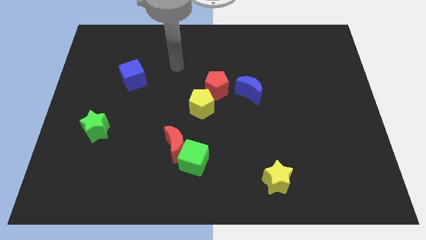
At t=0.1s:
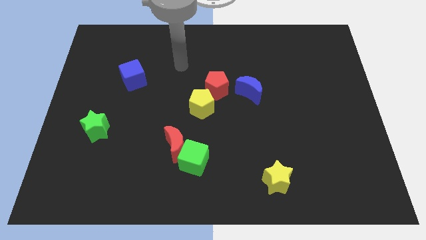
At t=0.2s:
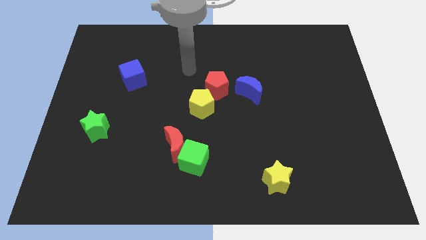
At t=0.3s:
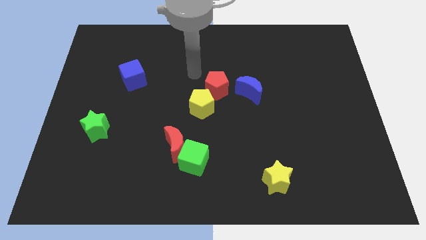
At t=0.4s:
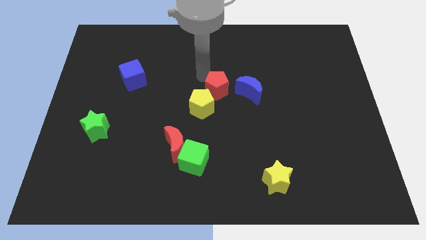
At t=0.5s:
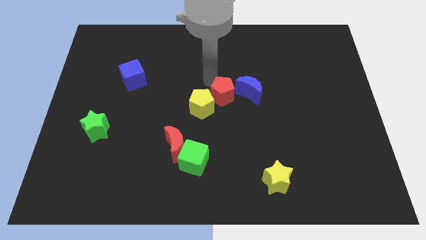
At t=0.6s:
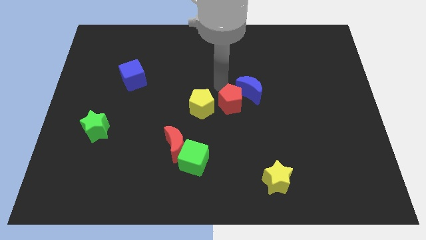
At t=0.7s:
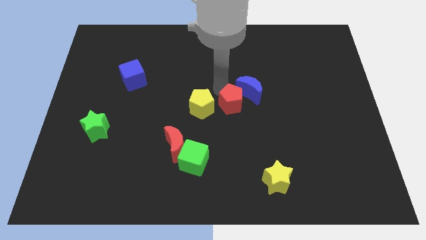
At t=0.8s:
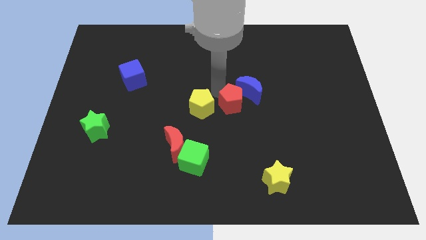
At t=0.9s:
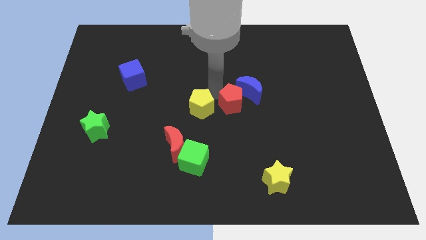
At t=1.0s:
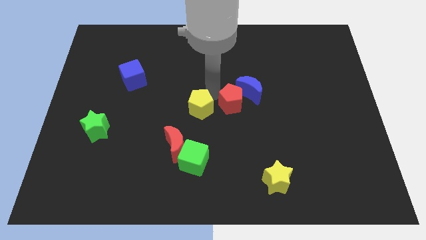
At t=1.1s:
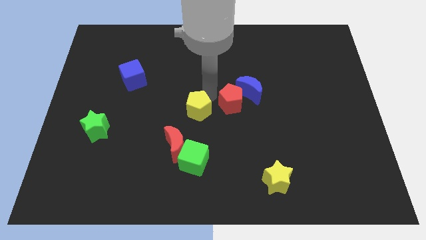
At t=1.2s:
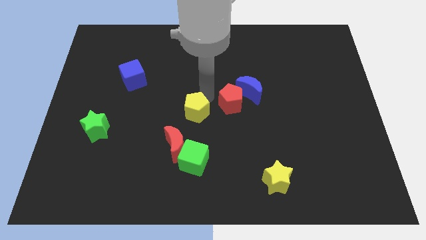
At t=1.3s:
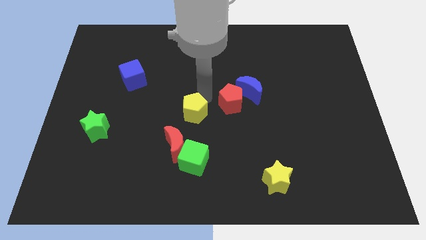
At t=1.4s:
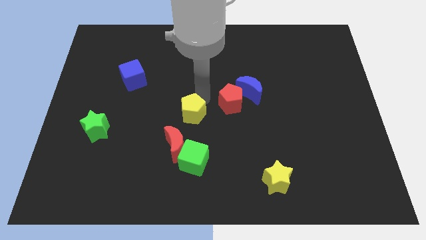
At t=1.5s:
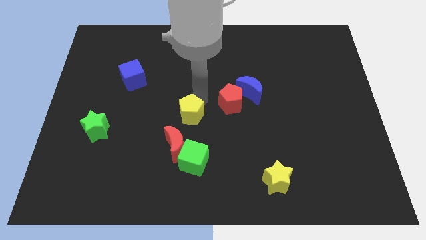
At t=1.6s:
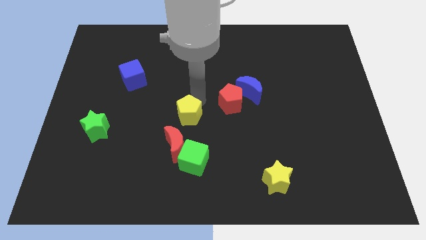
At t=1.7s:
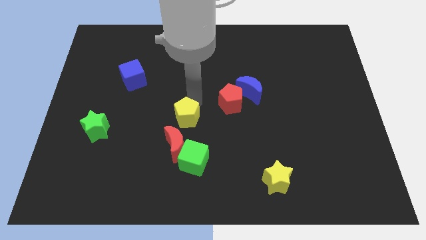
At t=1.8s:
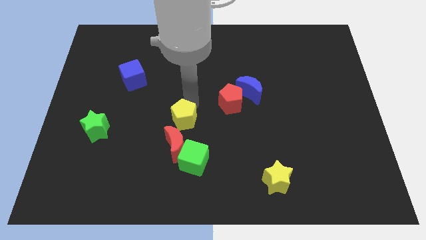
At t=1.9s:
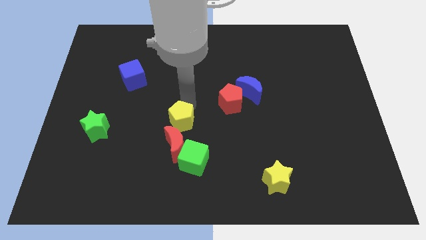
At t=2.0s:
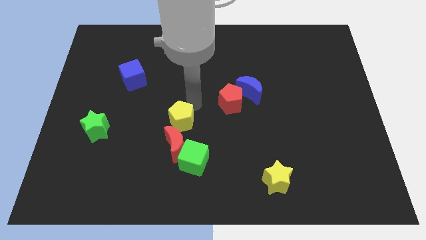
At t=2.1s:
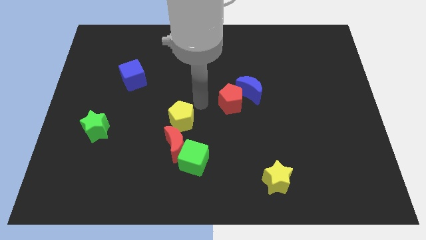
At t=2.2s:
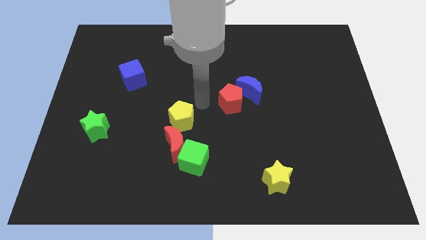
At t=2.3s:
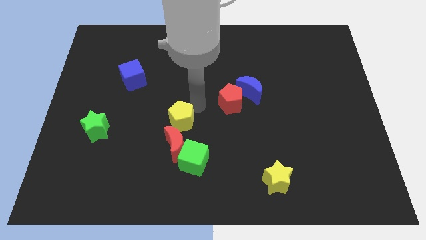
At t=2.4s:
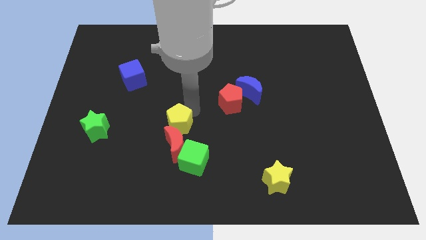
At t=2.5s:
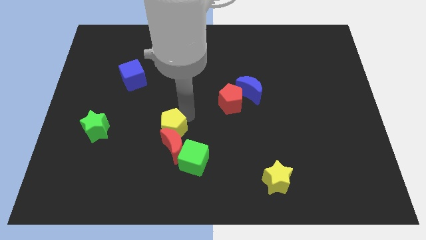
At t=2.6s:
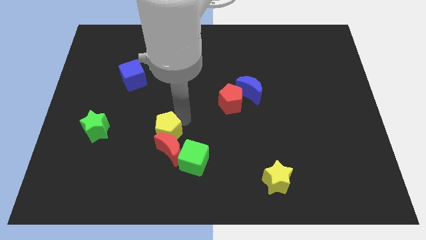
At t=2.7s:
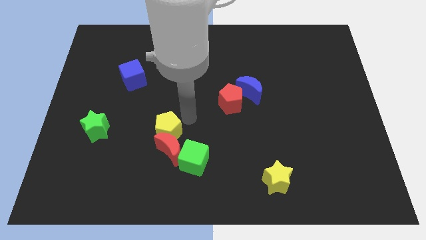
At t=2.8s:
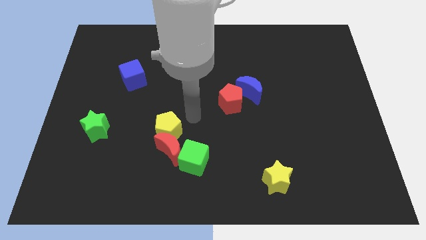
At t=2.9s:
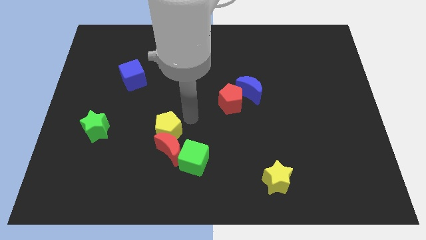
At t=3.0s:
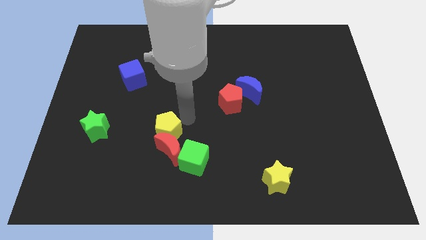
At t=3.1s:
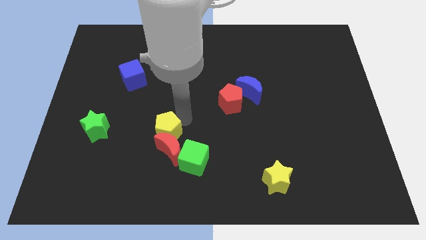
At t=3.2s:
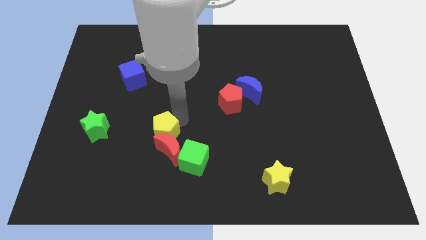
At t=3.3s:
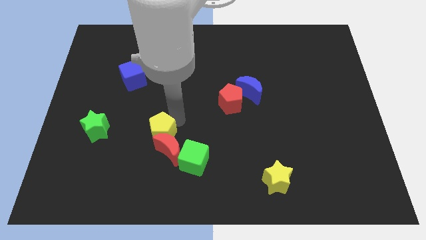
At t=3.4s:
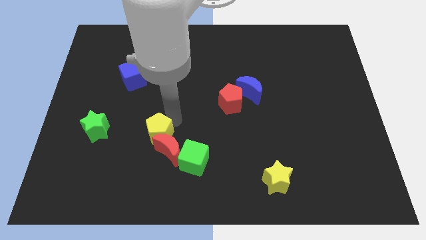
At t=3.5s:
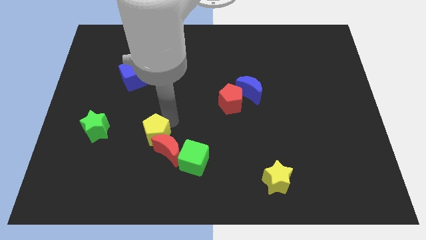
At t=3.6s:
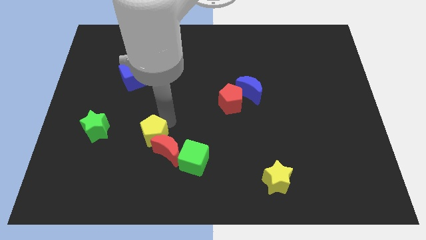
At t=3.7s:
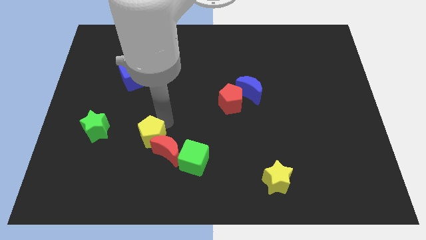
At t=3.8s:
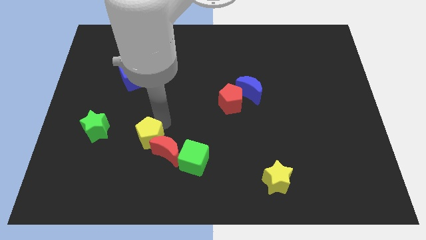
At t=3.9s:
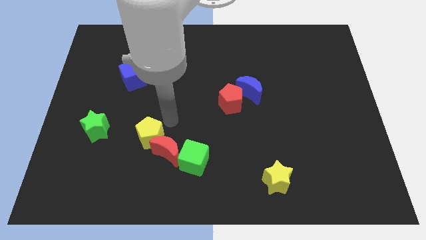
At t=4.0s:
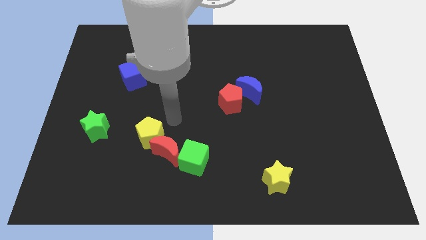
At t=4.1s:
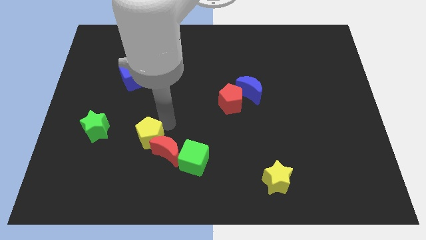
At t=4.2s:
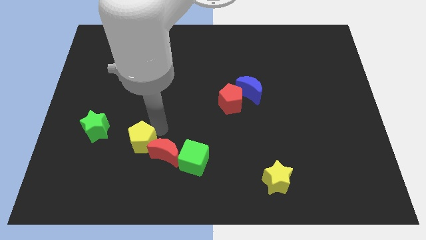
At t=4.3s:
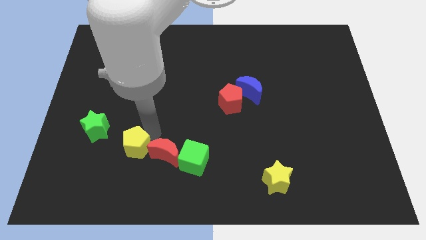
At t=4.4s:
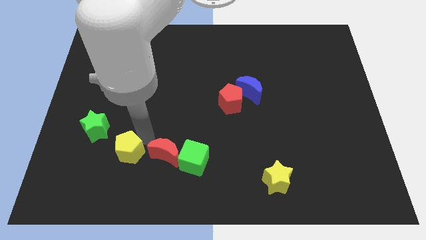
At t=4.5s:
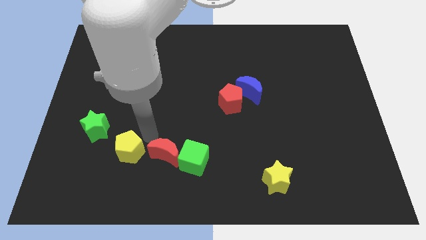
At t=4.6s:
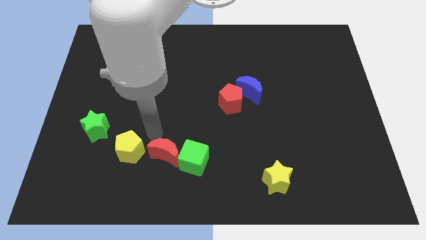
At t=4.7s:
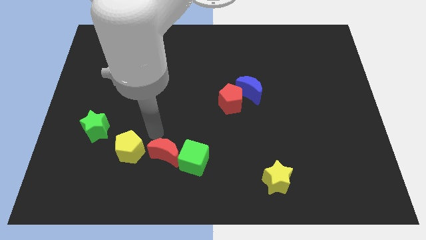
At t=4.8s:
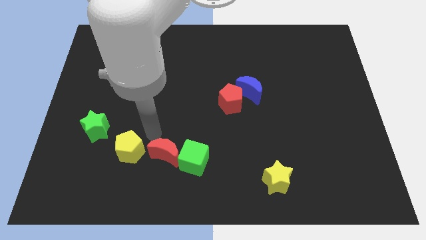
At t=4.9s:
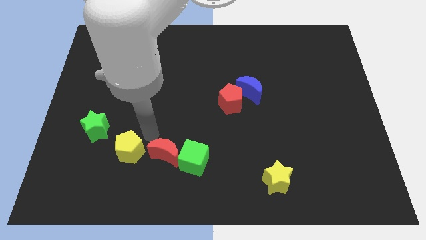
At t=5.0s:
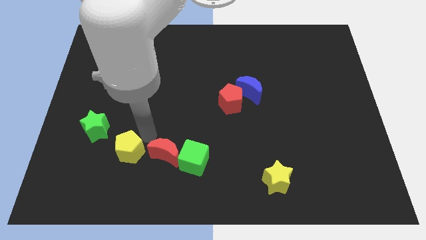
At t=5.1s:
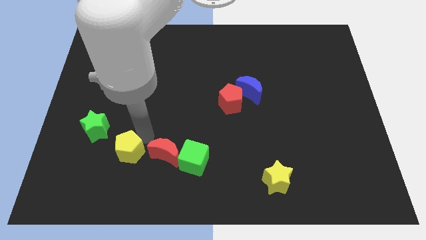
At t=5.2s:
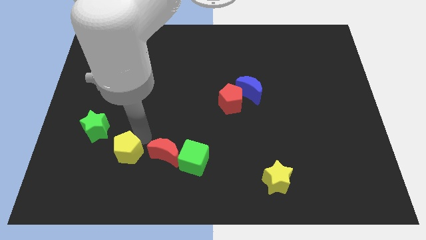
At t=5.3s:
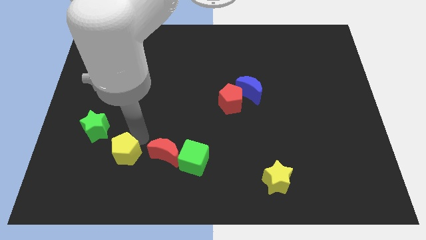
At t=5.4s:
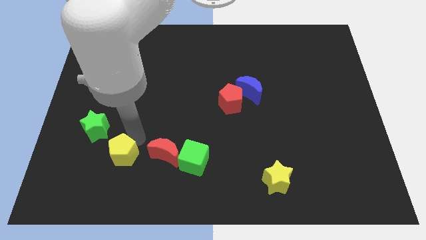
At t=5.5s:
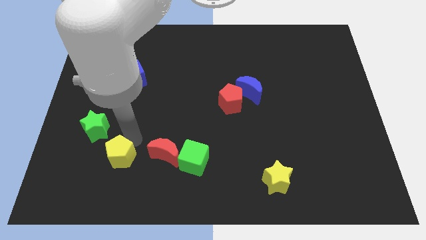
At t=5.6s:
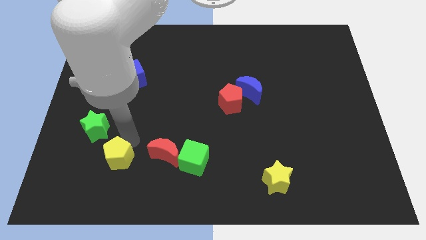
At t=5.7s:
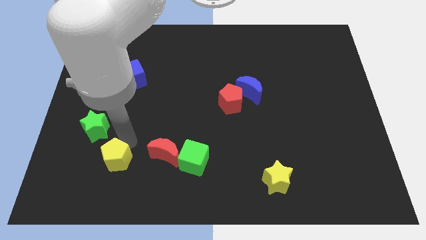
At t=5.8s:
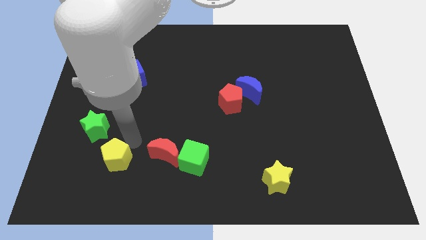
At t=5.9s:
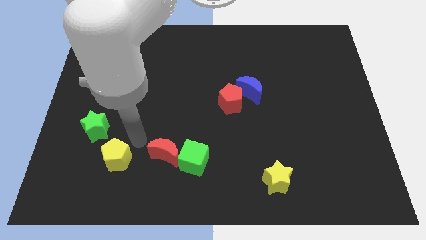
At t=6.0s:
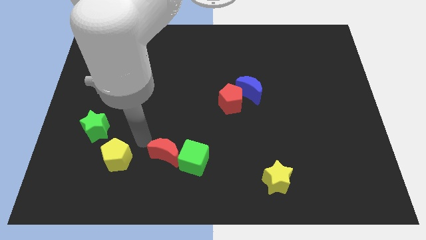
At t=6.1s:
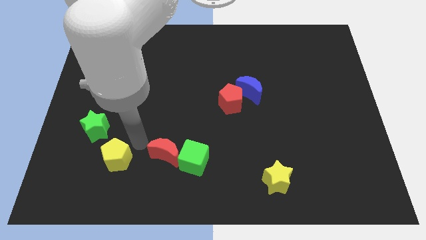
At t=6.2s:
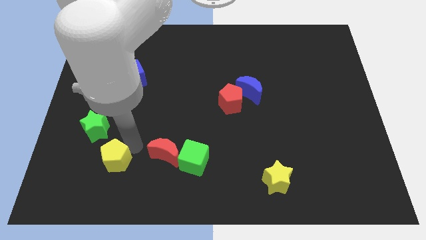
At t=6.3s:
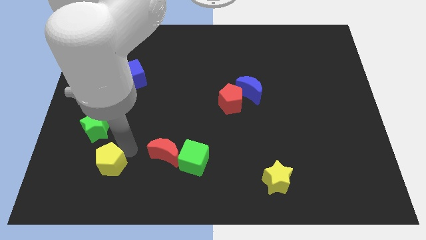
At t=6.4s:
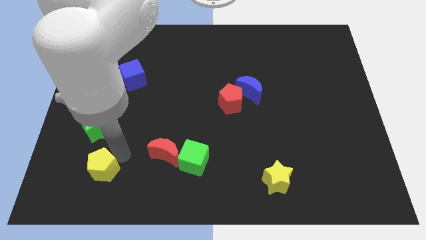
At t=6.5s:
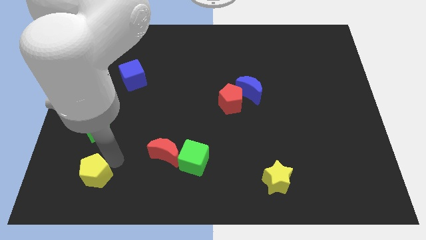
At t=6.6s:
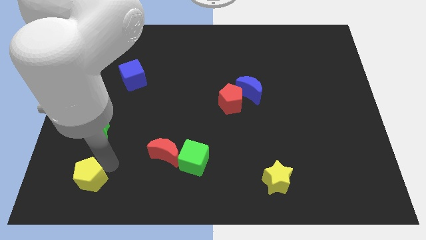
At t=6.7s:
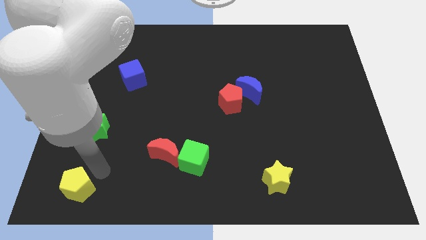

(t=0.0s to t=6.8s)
move the yellow pentagon to the bottom left
